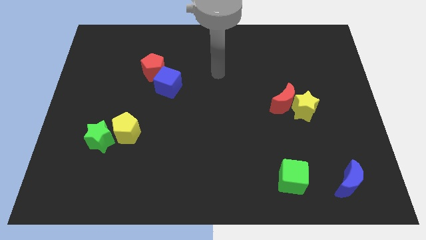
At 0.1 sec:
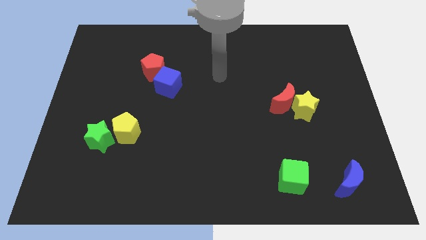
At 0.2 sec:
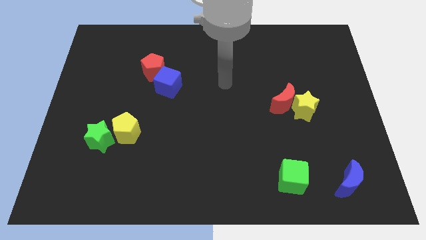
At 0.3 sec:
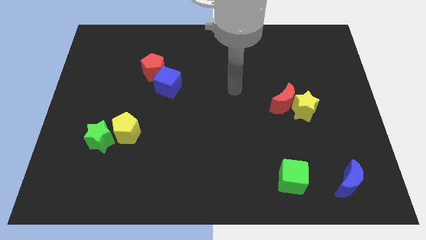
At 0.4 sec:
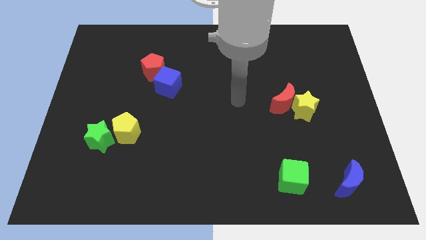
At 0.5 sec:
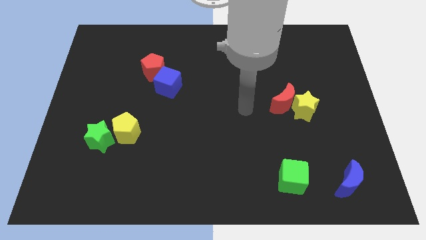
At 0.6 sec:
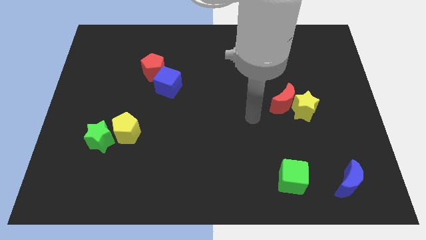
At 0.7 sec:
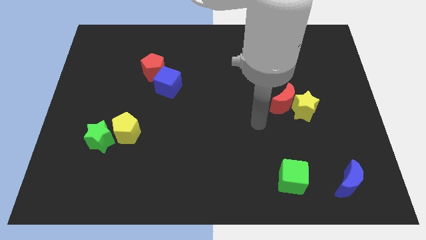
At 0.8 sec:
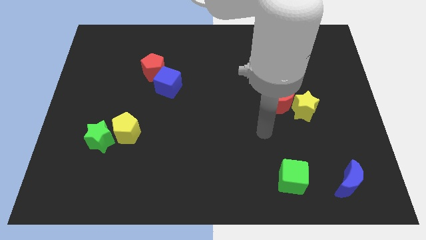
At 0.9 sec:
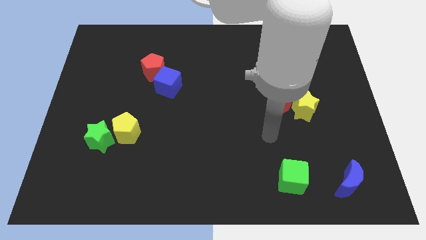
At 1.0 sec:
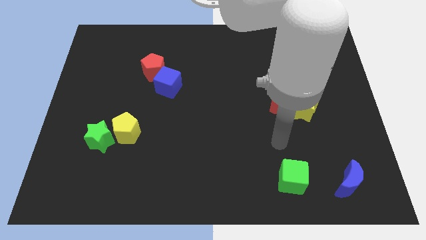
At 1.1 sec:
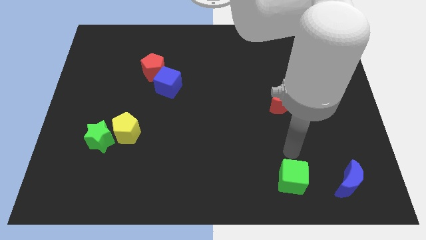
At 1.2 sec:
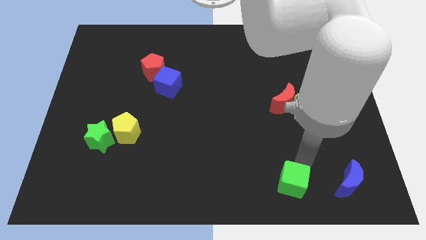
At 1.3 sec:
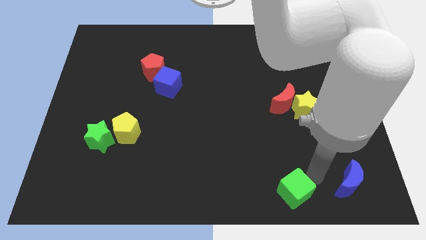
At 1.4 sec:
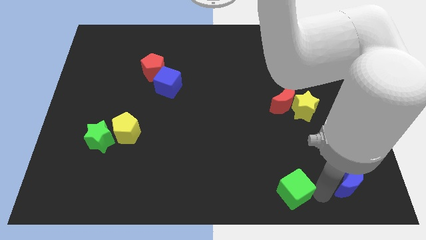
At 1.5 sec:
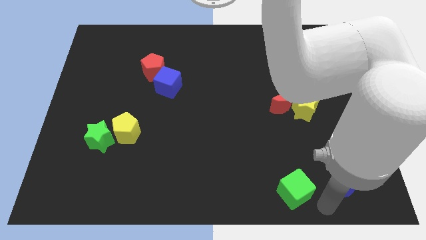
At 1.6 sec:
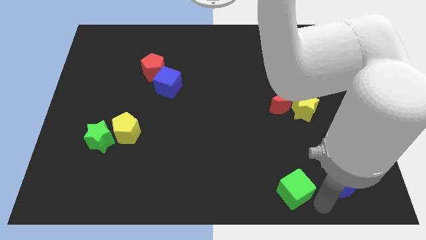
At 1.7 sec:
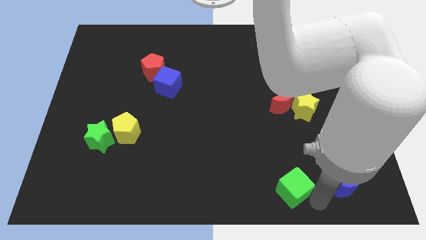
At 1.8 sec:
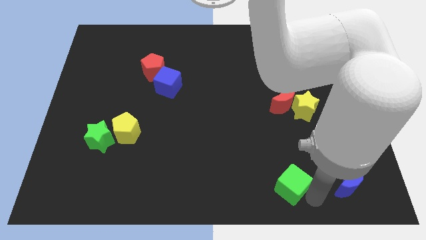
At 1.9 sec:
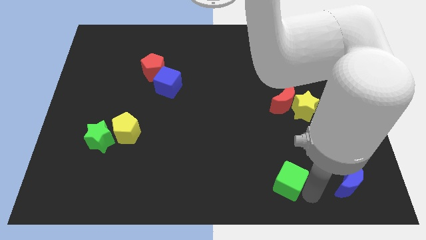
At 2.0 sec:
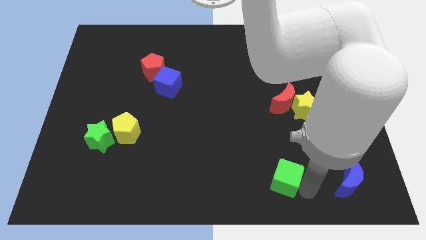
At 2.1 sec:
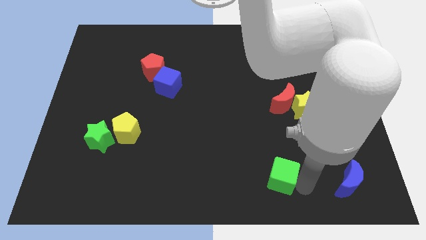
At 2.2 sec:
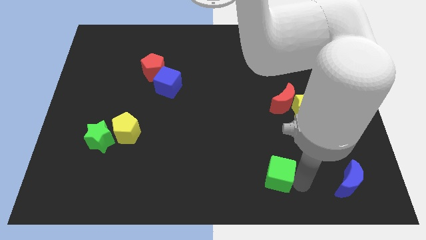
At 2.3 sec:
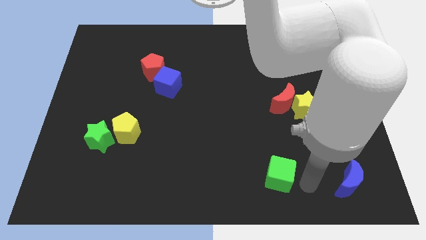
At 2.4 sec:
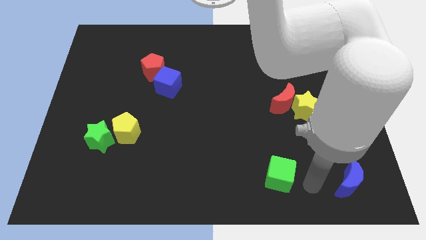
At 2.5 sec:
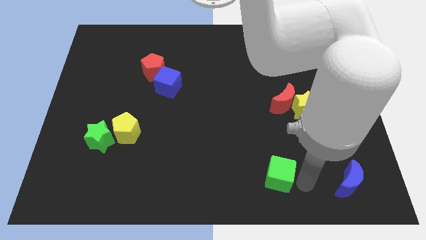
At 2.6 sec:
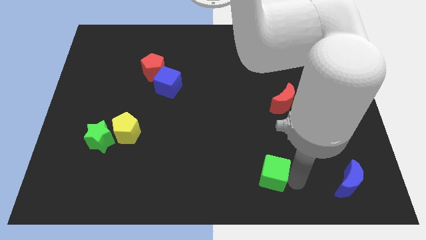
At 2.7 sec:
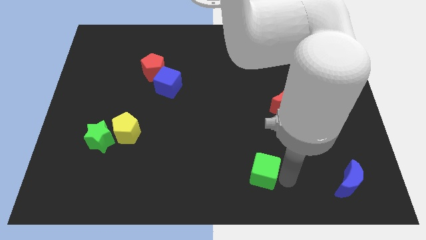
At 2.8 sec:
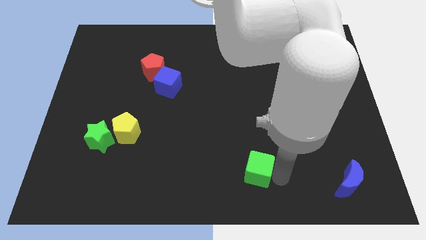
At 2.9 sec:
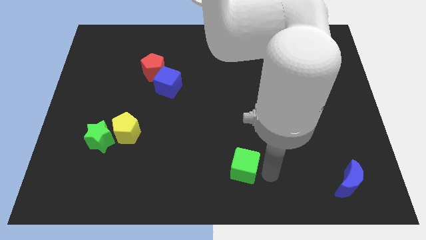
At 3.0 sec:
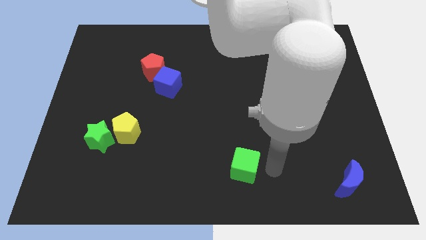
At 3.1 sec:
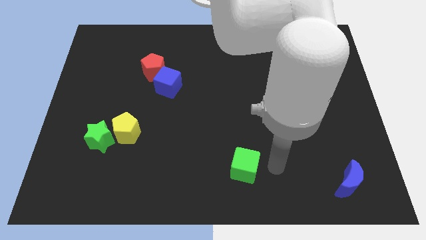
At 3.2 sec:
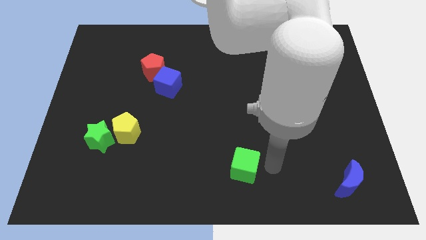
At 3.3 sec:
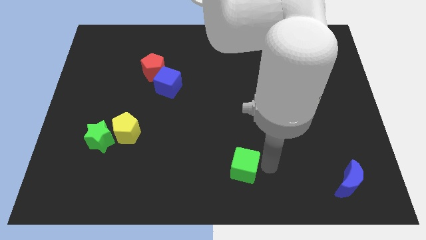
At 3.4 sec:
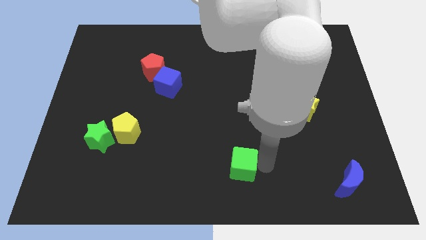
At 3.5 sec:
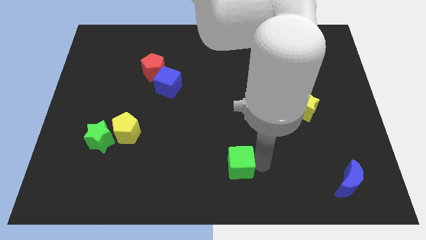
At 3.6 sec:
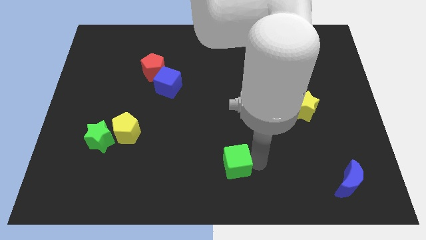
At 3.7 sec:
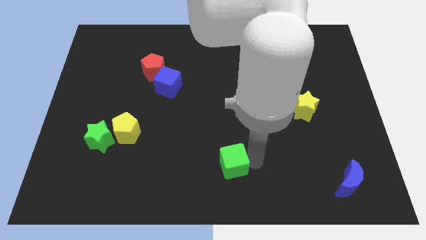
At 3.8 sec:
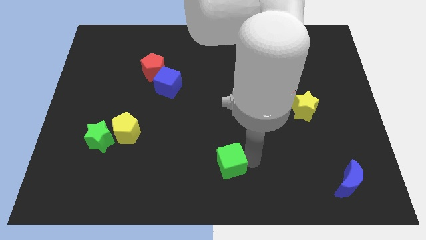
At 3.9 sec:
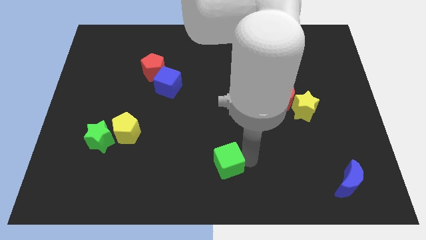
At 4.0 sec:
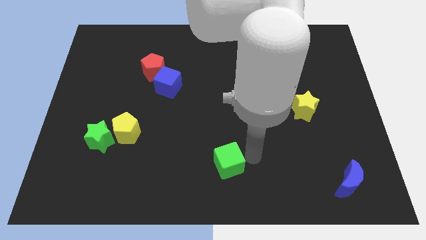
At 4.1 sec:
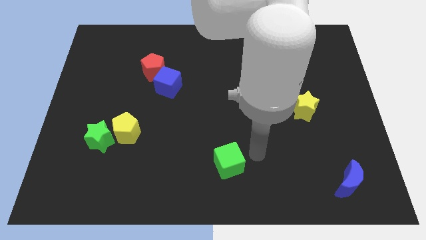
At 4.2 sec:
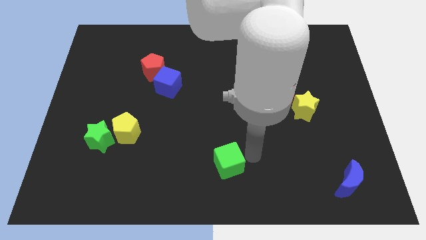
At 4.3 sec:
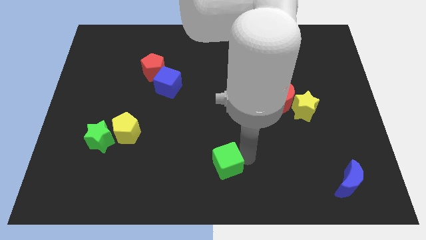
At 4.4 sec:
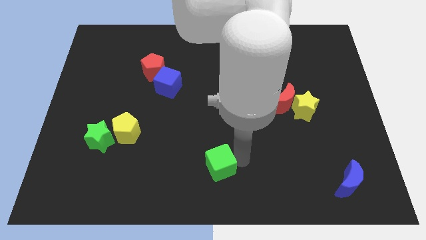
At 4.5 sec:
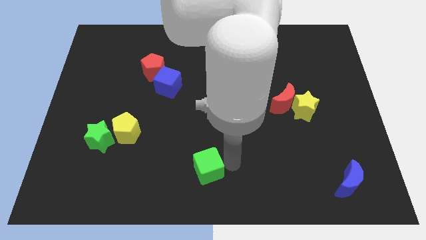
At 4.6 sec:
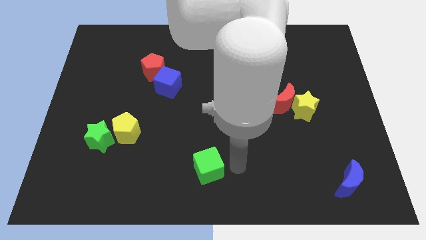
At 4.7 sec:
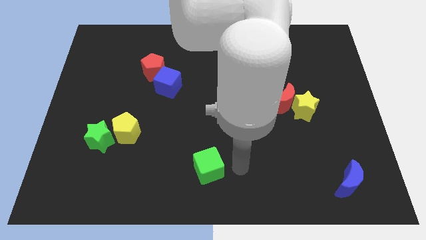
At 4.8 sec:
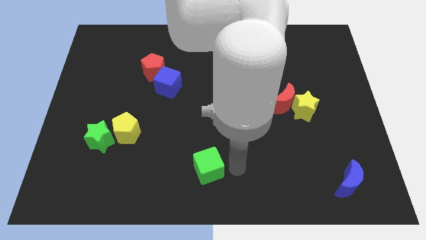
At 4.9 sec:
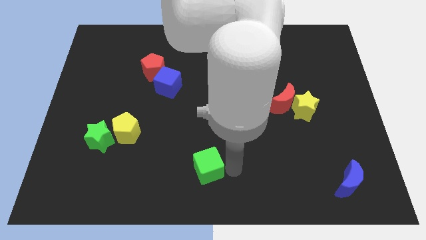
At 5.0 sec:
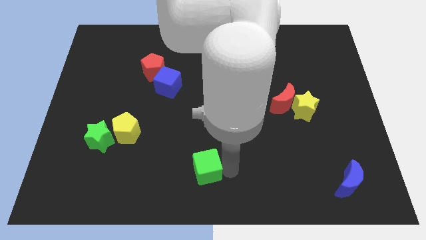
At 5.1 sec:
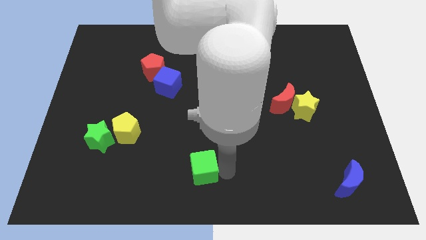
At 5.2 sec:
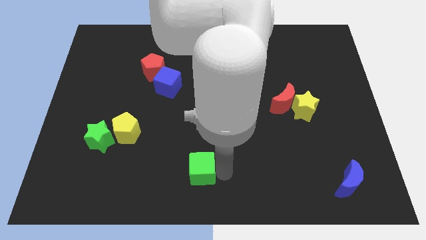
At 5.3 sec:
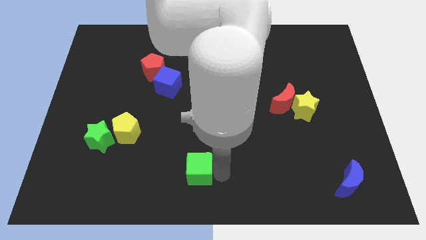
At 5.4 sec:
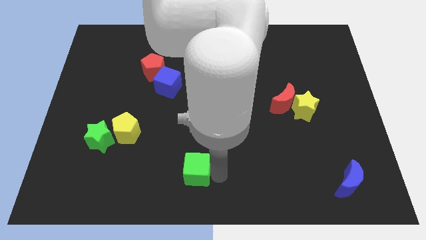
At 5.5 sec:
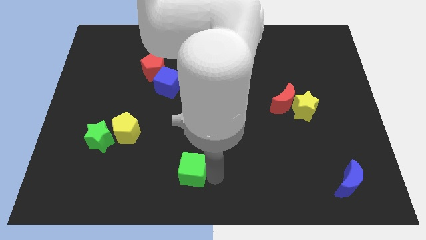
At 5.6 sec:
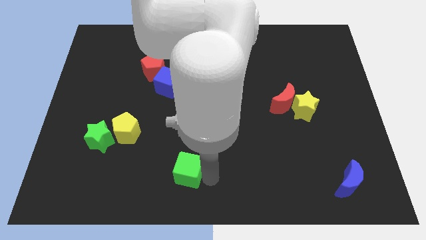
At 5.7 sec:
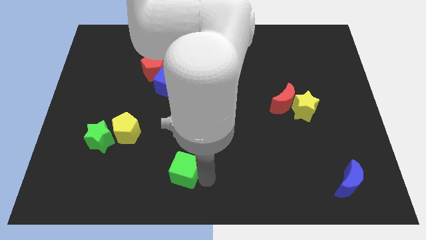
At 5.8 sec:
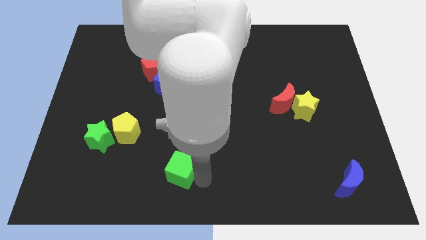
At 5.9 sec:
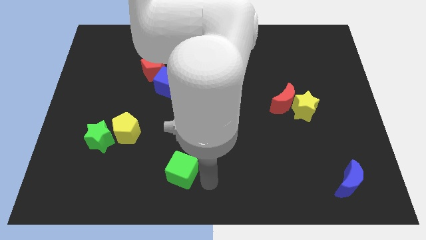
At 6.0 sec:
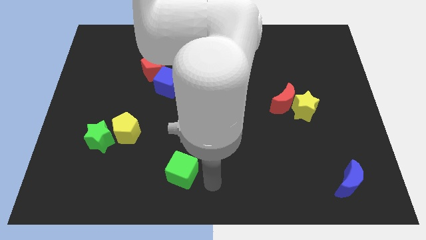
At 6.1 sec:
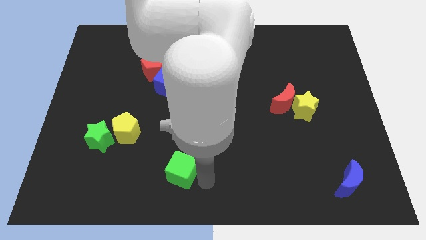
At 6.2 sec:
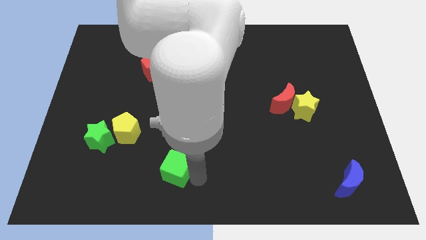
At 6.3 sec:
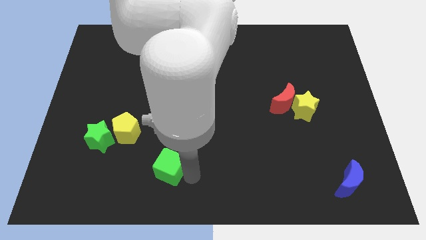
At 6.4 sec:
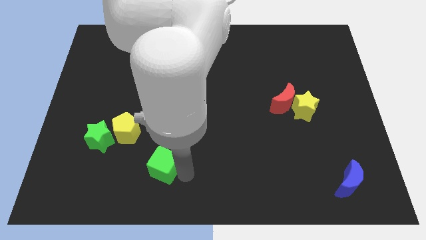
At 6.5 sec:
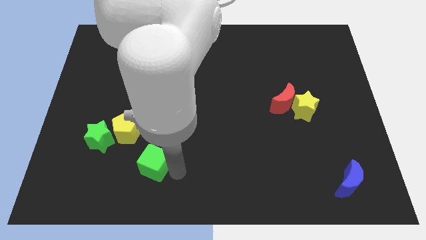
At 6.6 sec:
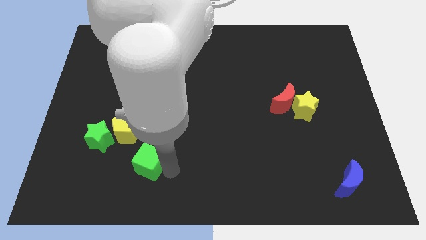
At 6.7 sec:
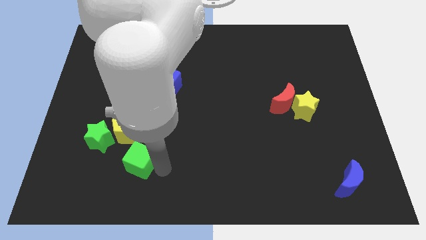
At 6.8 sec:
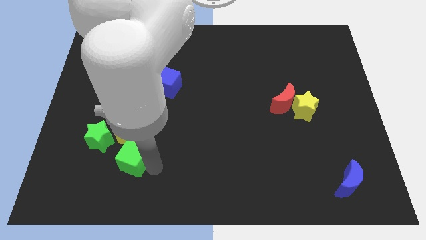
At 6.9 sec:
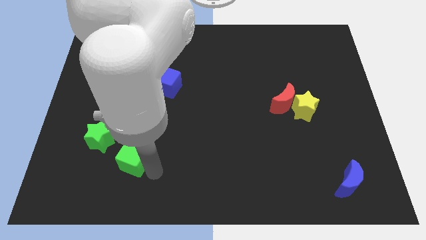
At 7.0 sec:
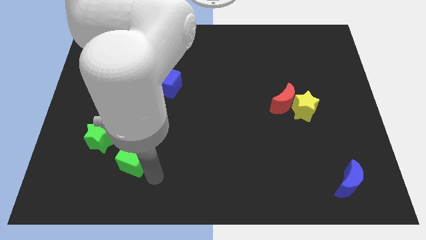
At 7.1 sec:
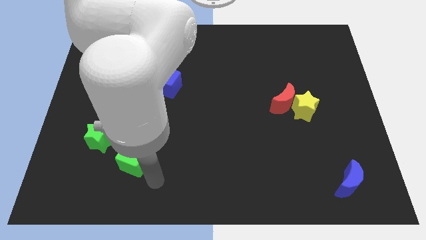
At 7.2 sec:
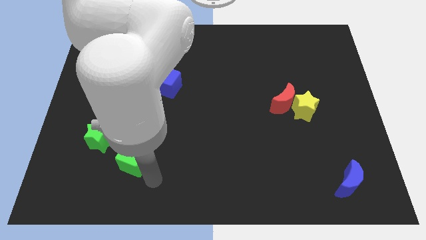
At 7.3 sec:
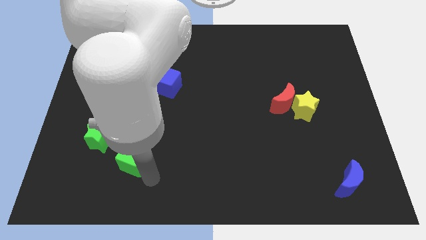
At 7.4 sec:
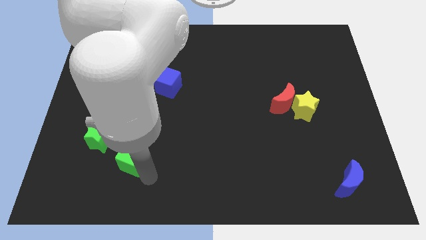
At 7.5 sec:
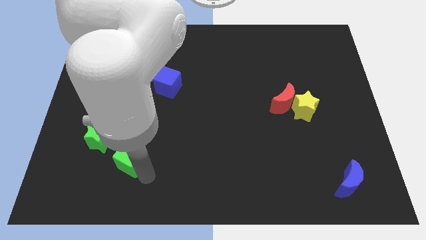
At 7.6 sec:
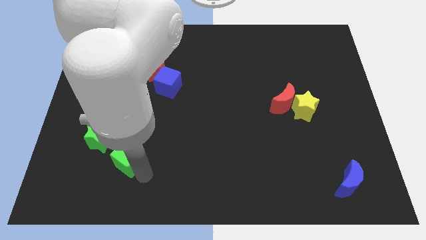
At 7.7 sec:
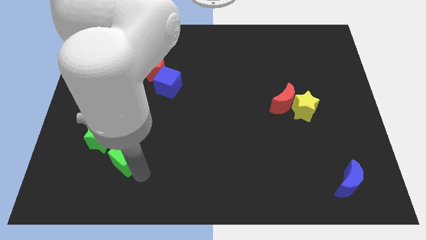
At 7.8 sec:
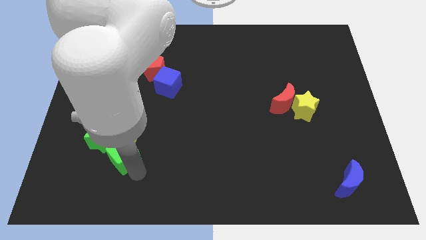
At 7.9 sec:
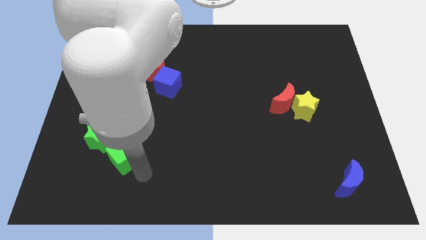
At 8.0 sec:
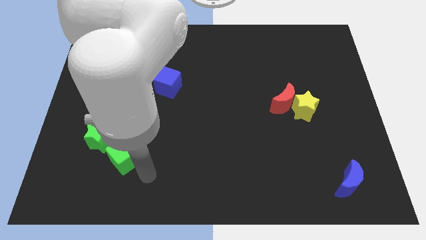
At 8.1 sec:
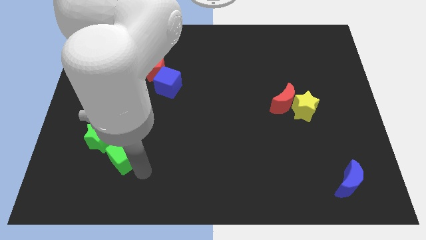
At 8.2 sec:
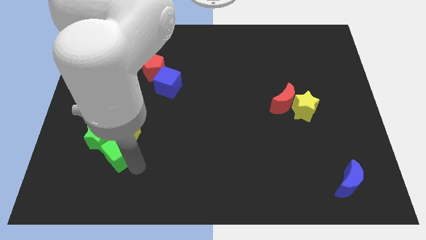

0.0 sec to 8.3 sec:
put the green cube next to the green star
